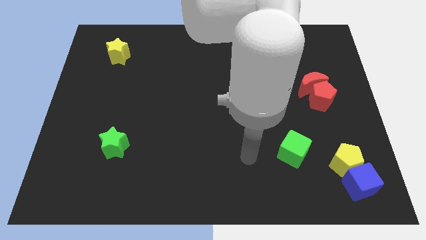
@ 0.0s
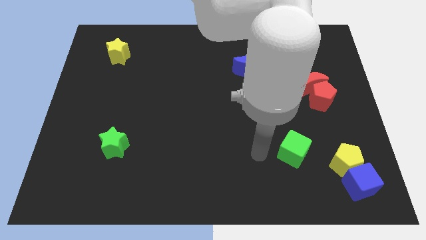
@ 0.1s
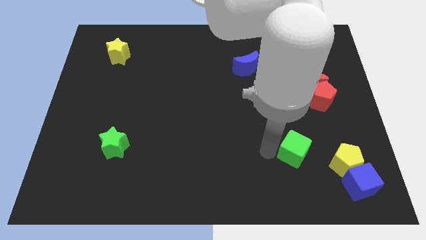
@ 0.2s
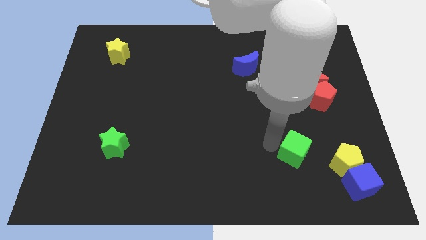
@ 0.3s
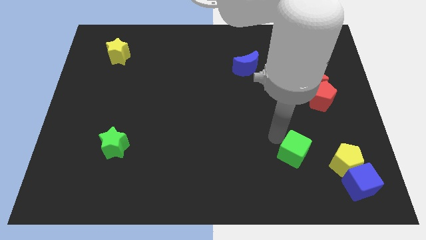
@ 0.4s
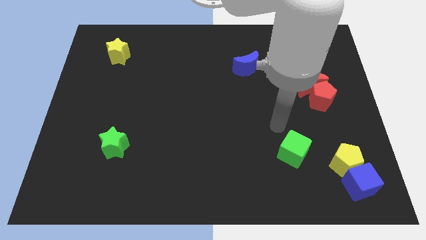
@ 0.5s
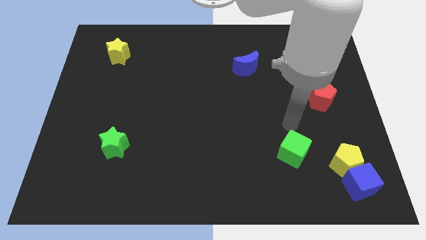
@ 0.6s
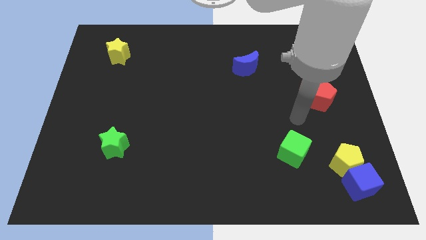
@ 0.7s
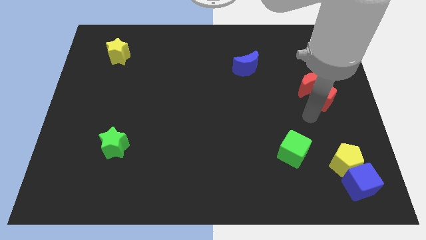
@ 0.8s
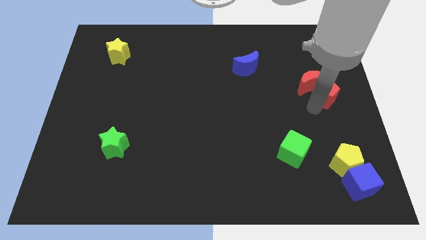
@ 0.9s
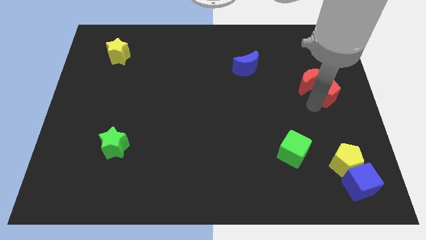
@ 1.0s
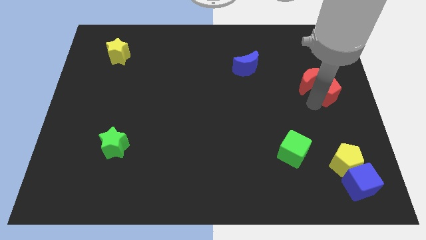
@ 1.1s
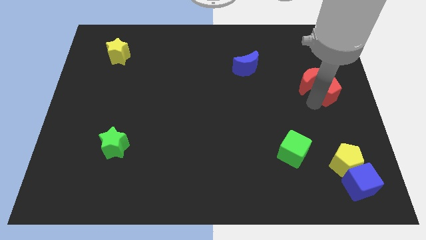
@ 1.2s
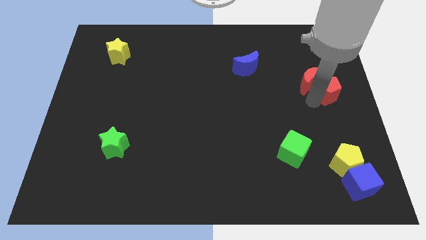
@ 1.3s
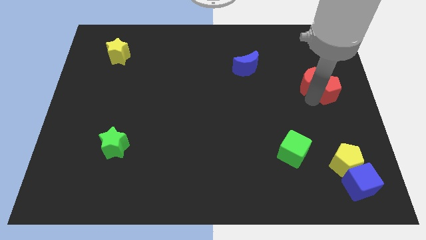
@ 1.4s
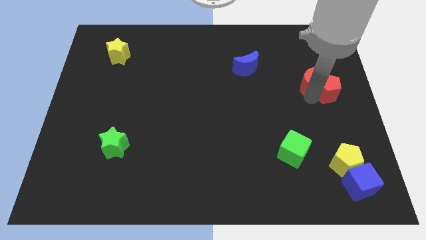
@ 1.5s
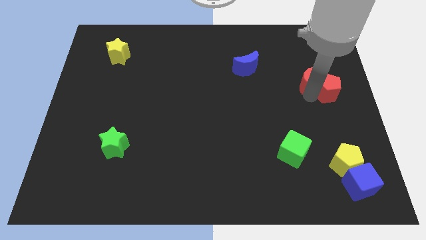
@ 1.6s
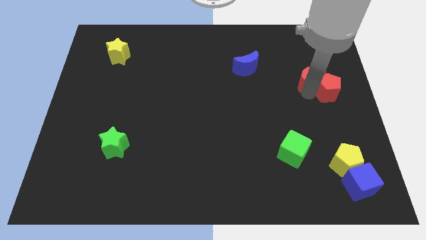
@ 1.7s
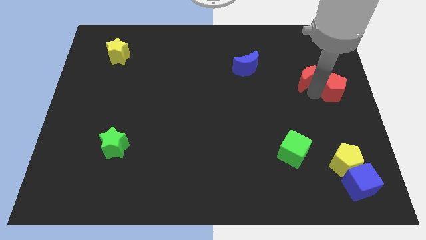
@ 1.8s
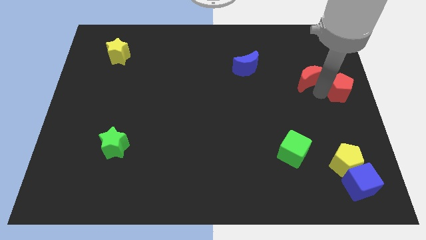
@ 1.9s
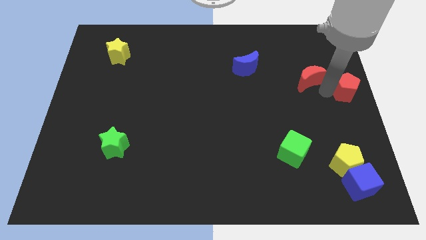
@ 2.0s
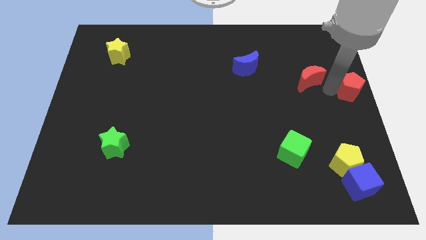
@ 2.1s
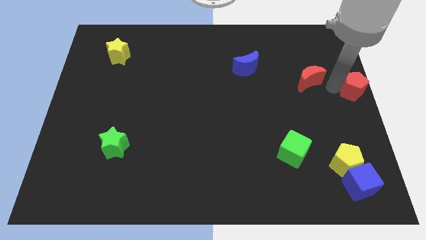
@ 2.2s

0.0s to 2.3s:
separate the red moon from the red pentagon

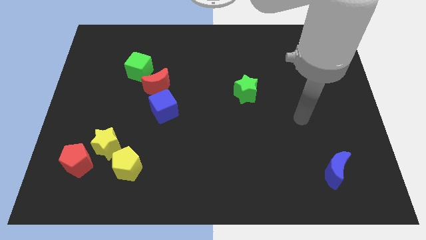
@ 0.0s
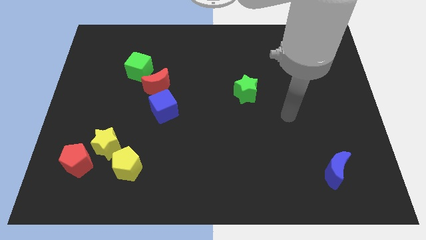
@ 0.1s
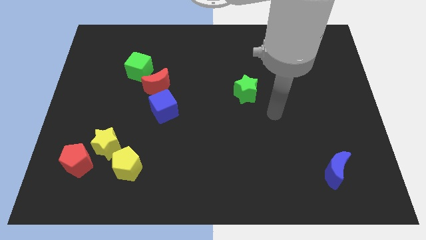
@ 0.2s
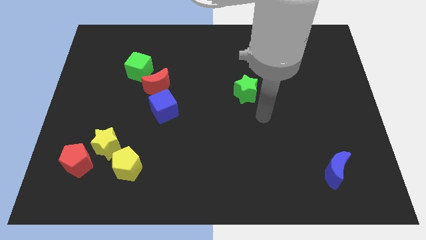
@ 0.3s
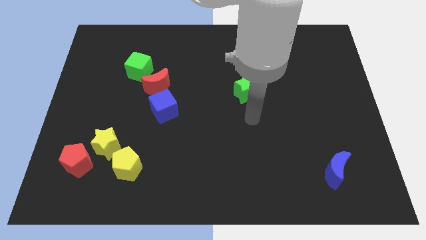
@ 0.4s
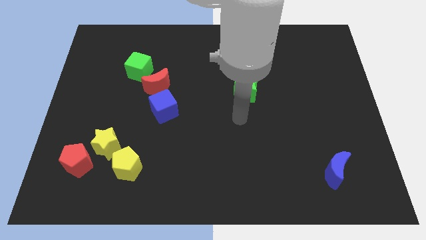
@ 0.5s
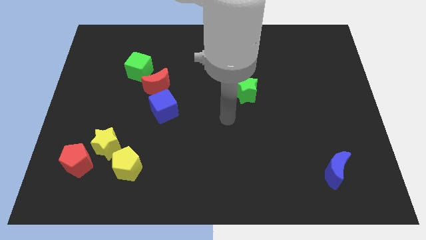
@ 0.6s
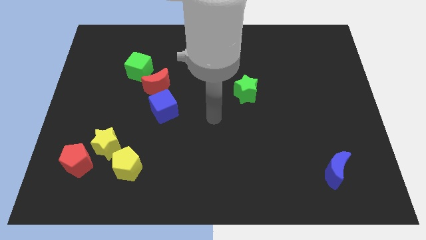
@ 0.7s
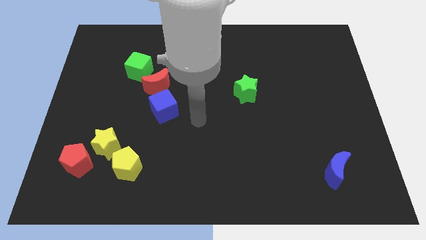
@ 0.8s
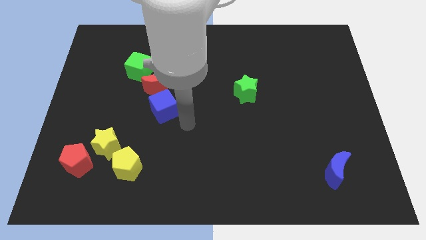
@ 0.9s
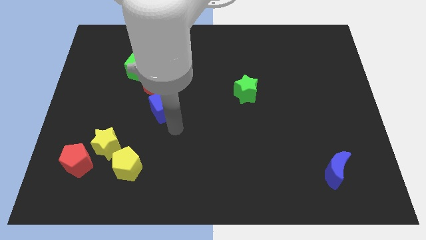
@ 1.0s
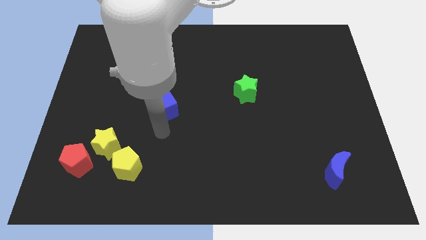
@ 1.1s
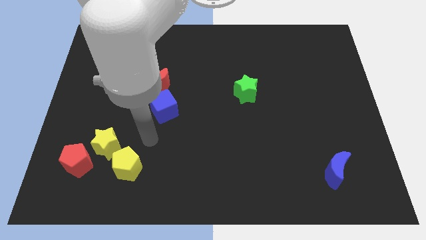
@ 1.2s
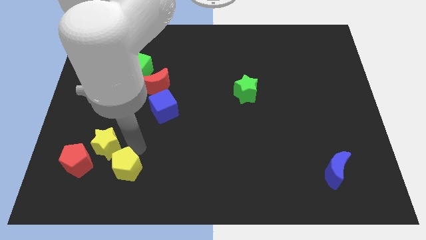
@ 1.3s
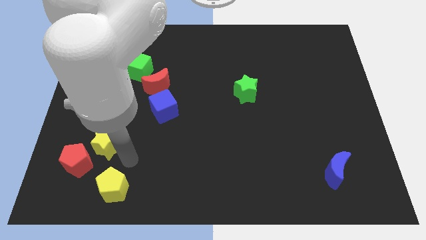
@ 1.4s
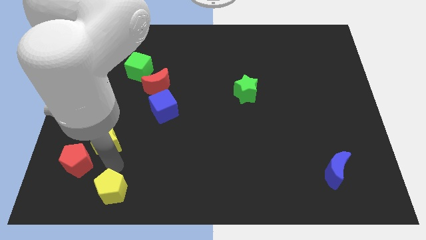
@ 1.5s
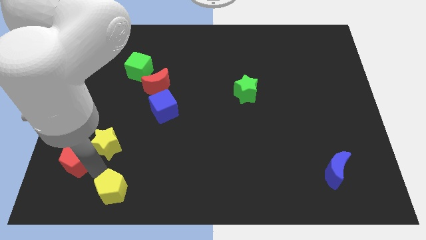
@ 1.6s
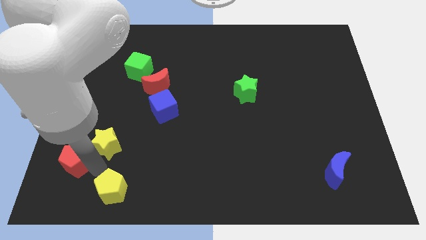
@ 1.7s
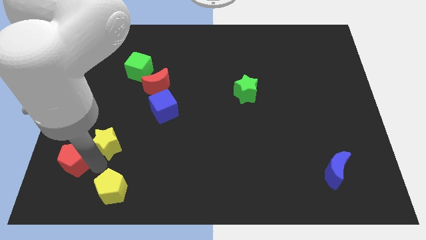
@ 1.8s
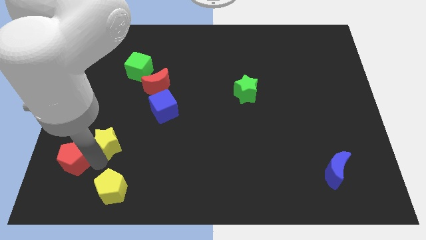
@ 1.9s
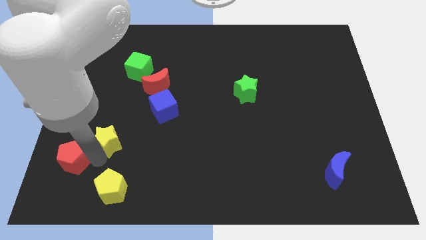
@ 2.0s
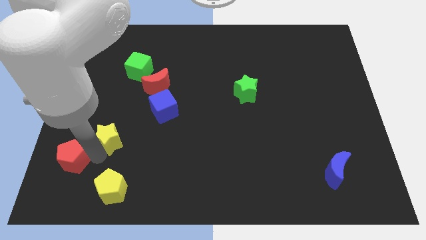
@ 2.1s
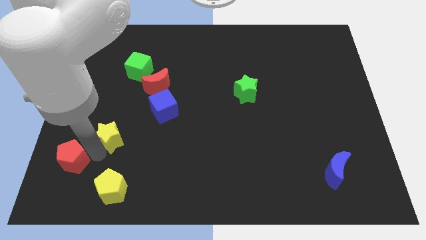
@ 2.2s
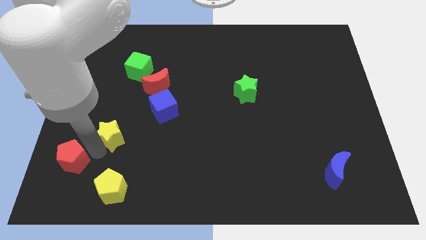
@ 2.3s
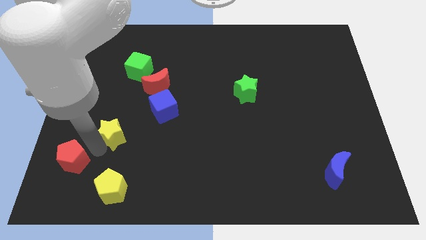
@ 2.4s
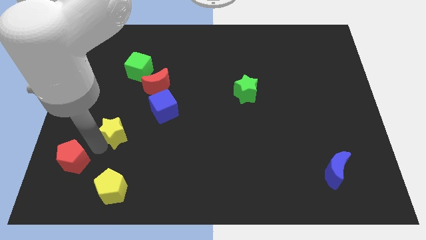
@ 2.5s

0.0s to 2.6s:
move the yellow star away from the red pentagon and yellow pentagon

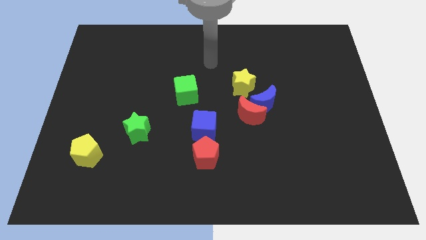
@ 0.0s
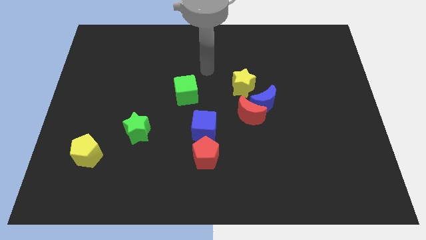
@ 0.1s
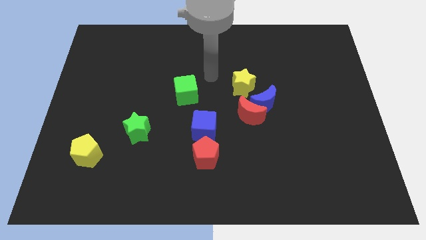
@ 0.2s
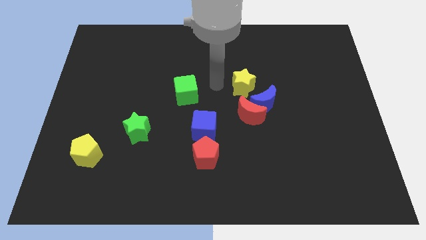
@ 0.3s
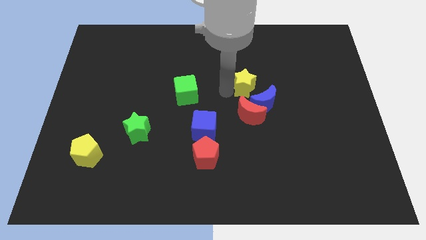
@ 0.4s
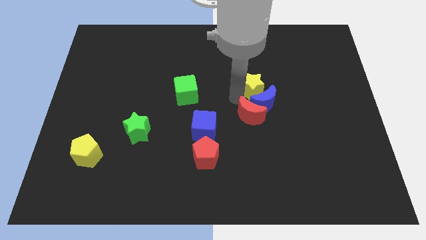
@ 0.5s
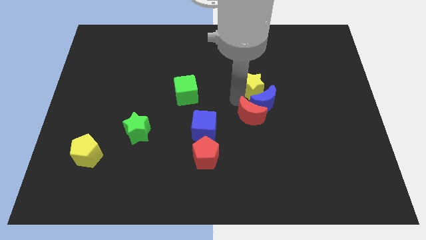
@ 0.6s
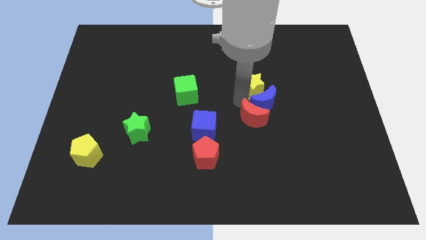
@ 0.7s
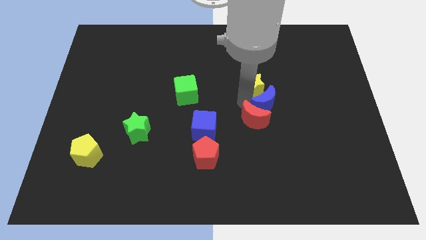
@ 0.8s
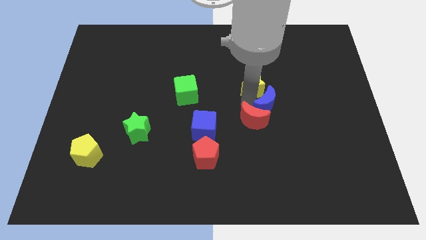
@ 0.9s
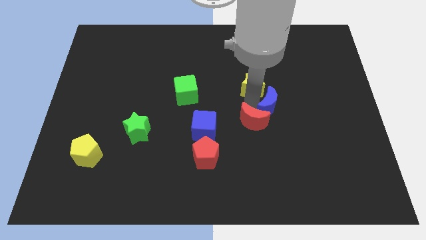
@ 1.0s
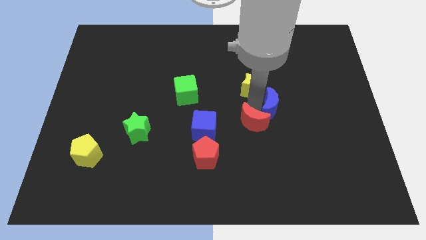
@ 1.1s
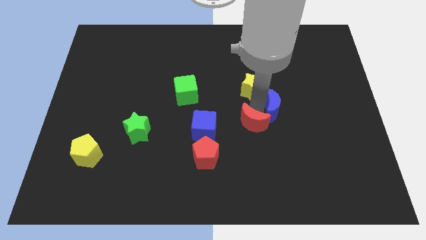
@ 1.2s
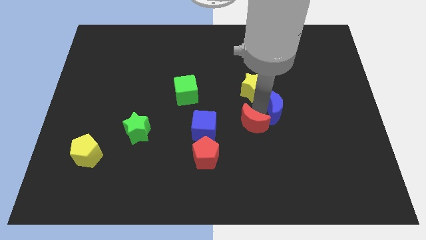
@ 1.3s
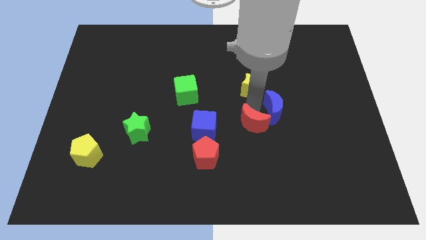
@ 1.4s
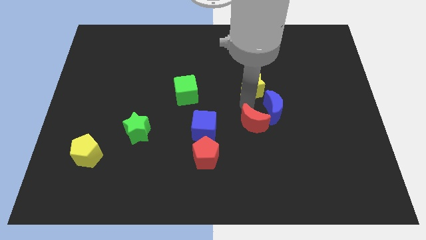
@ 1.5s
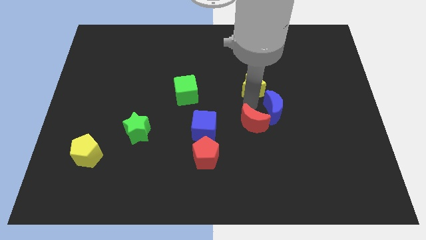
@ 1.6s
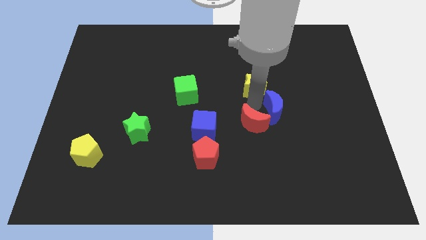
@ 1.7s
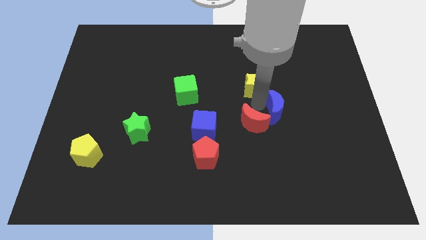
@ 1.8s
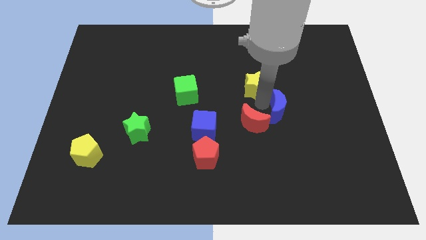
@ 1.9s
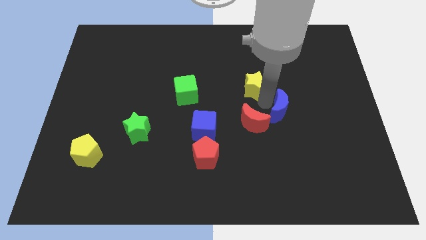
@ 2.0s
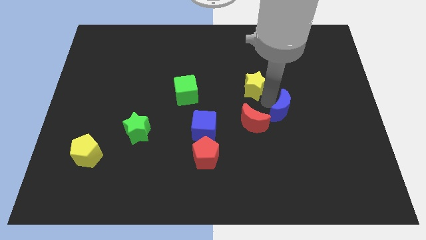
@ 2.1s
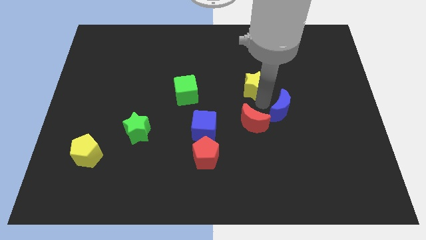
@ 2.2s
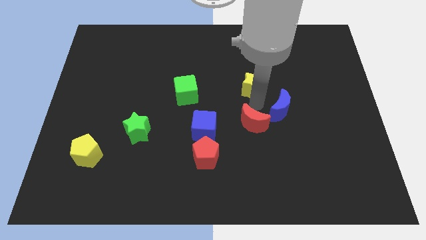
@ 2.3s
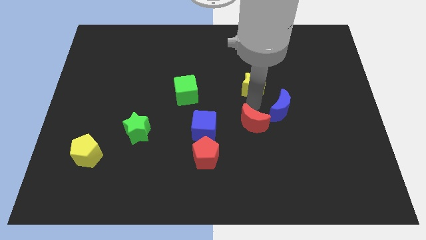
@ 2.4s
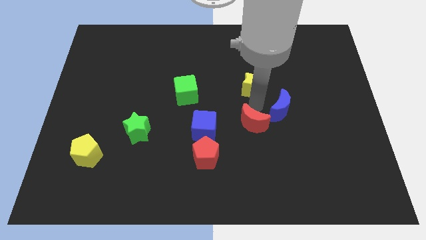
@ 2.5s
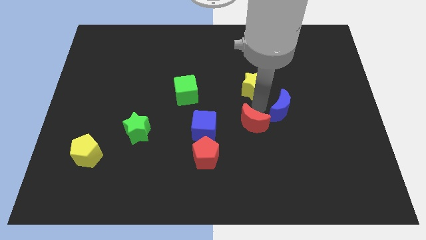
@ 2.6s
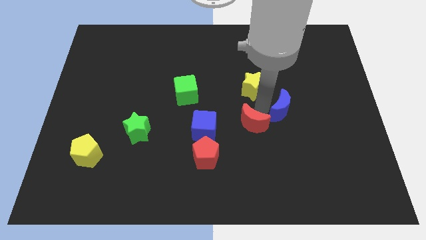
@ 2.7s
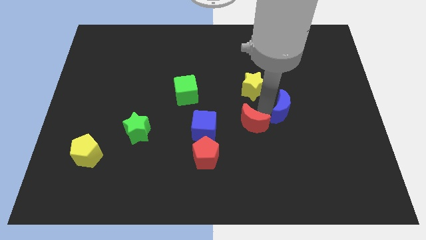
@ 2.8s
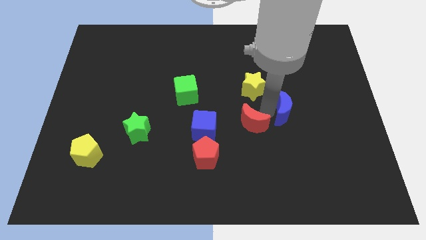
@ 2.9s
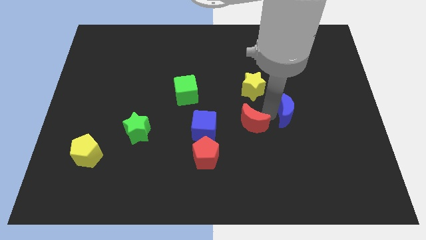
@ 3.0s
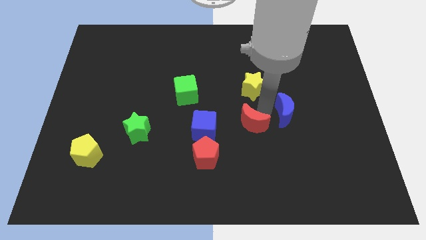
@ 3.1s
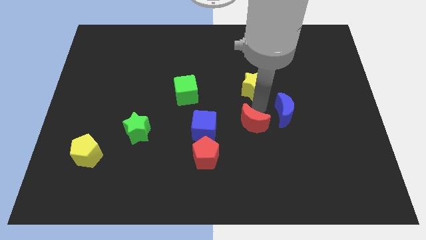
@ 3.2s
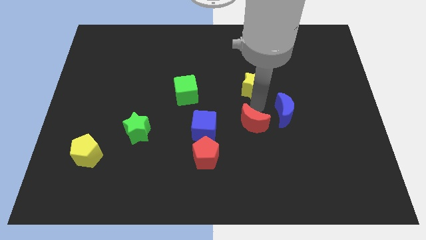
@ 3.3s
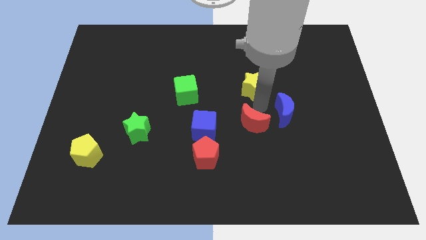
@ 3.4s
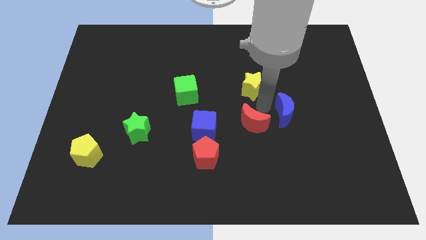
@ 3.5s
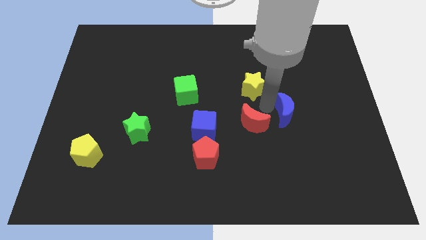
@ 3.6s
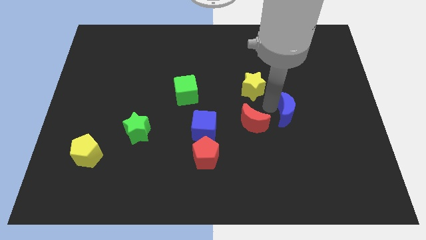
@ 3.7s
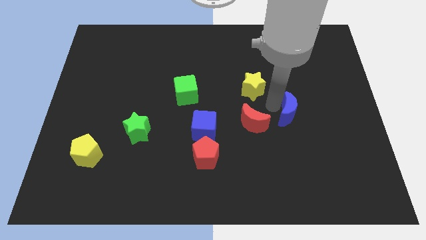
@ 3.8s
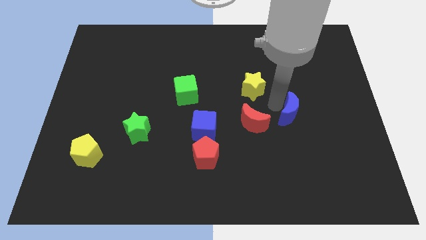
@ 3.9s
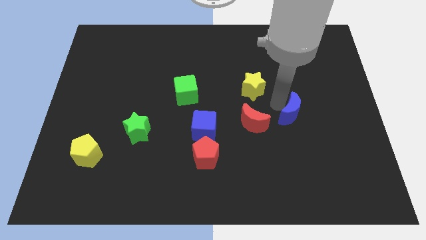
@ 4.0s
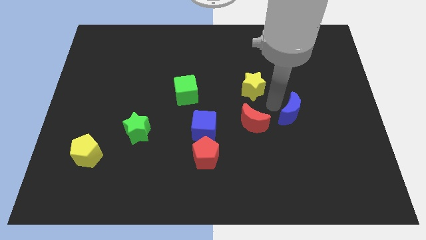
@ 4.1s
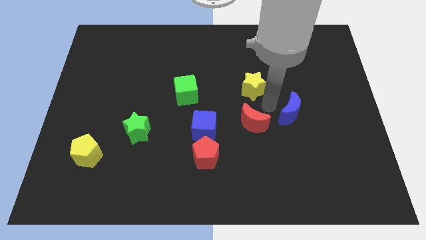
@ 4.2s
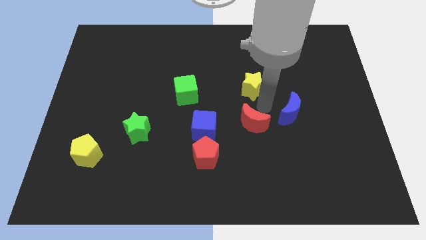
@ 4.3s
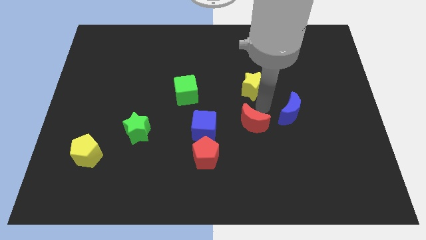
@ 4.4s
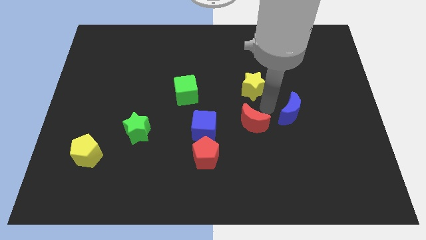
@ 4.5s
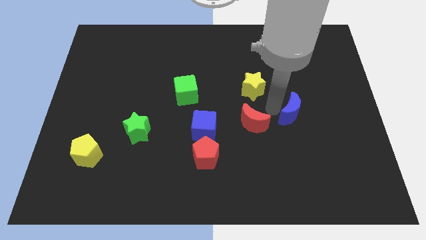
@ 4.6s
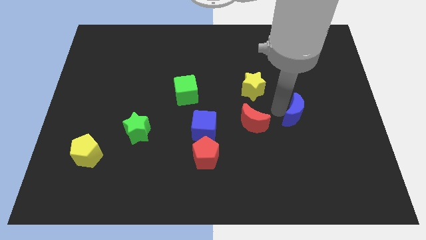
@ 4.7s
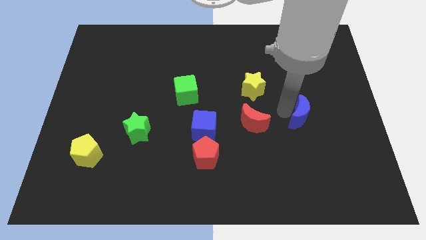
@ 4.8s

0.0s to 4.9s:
separate the blue moon from the red moon and yellow star
